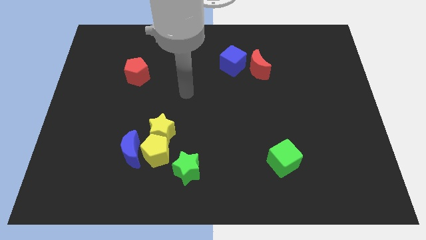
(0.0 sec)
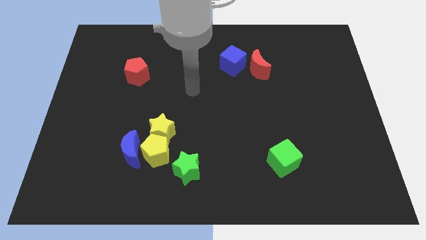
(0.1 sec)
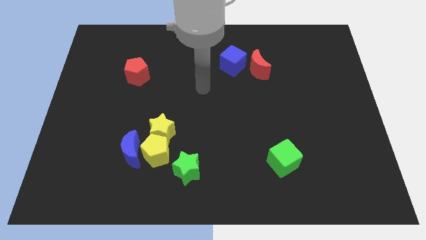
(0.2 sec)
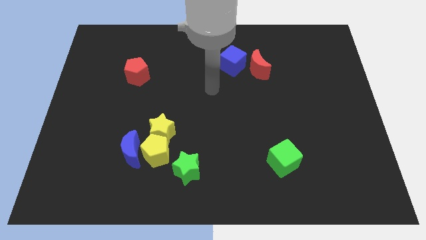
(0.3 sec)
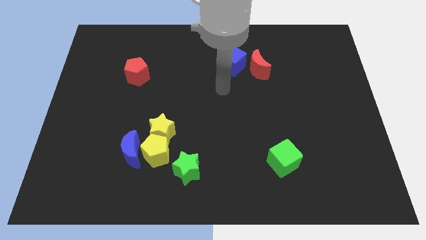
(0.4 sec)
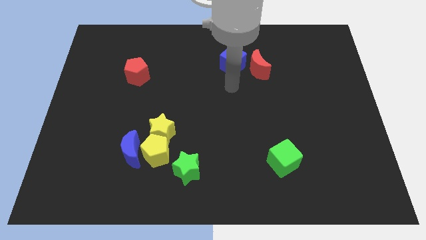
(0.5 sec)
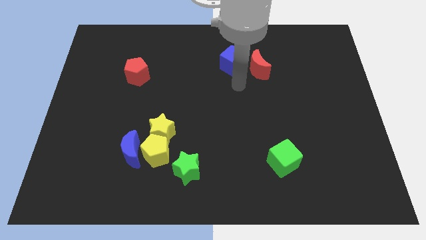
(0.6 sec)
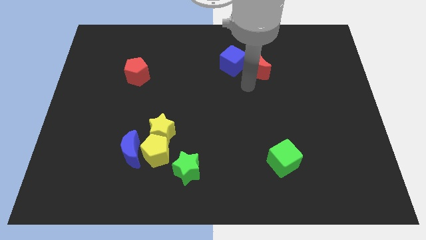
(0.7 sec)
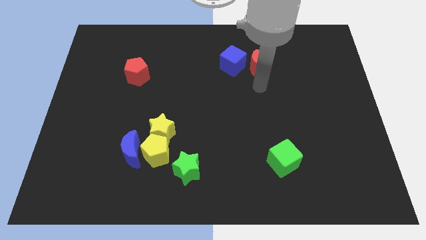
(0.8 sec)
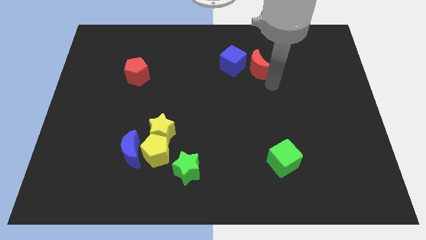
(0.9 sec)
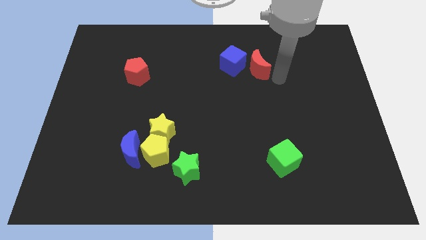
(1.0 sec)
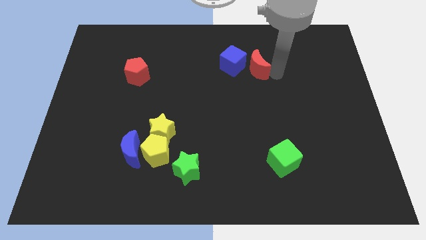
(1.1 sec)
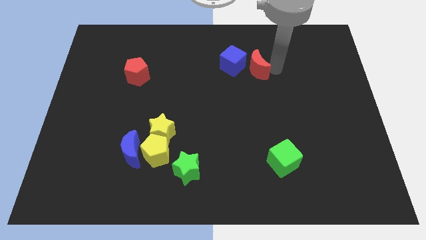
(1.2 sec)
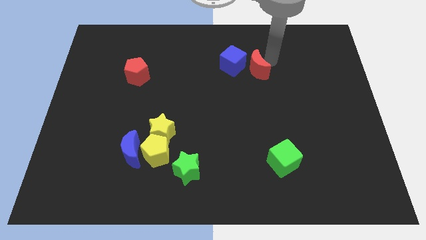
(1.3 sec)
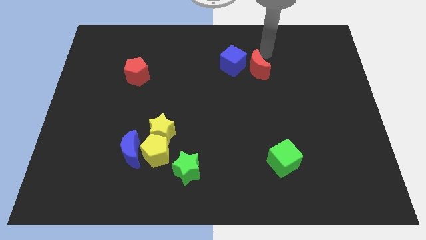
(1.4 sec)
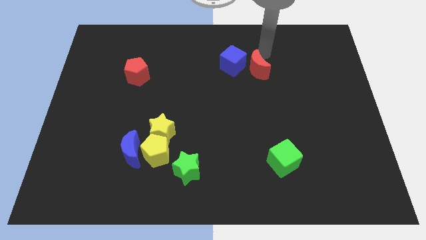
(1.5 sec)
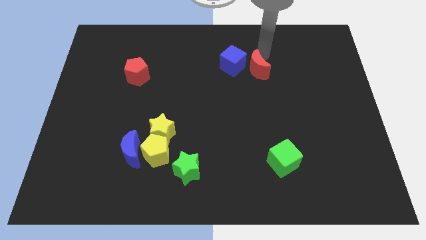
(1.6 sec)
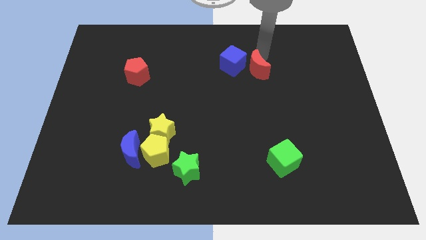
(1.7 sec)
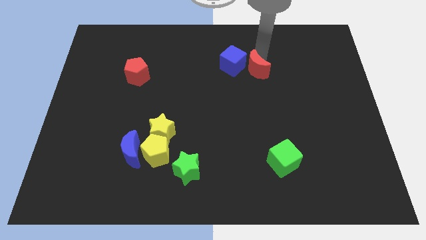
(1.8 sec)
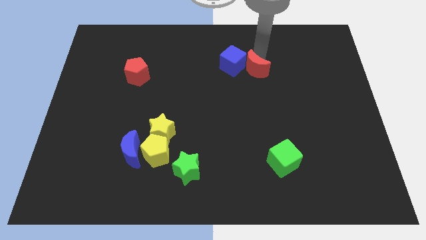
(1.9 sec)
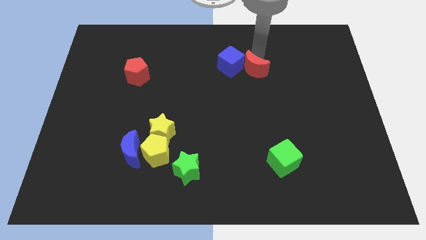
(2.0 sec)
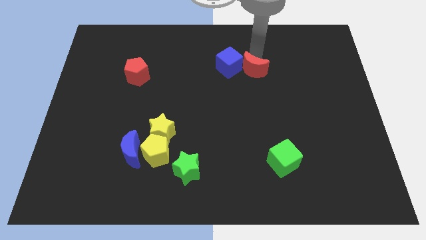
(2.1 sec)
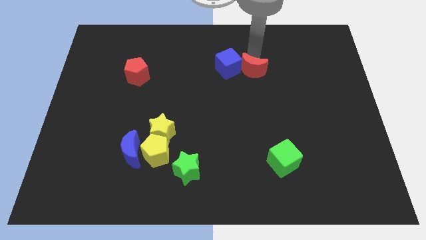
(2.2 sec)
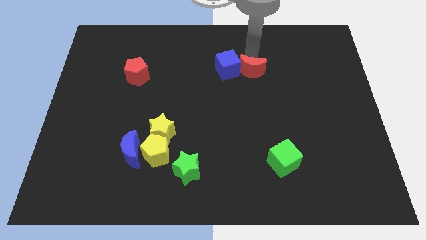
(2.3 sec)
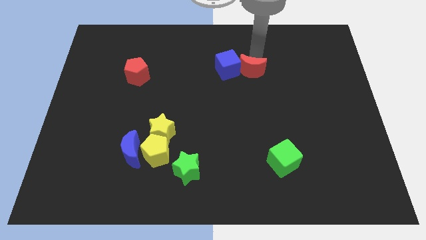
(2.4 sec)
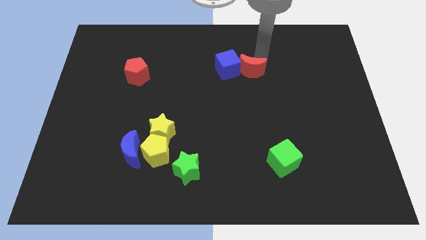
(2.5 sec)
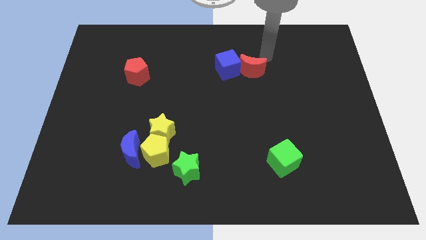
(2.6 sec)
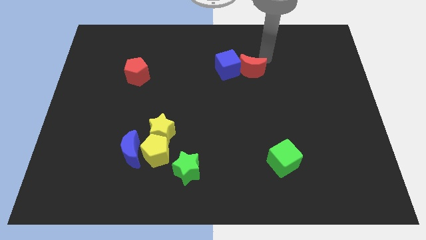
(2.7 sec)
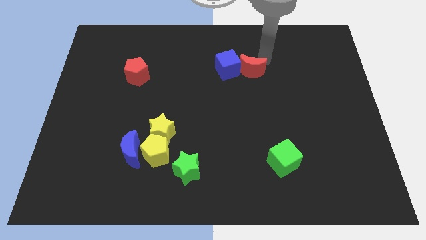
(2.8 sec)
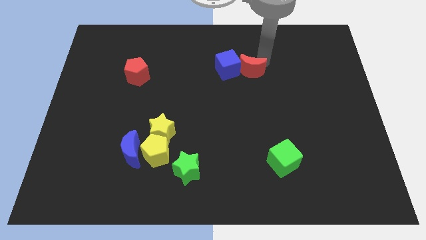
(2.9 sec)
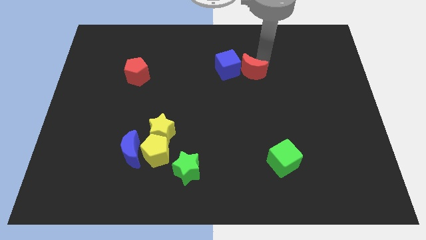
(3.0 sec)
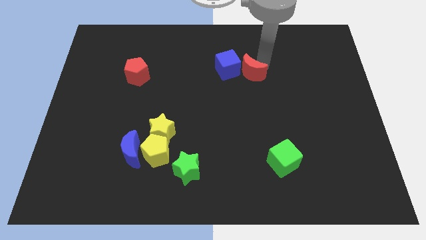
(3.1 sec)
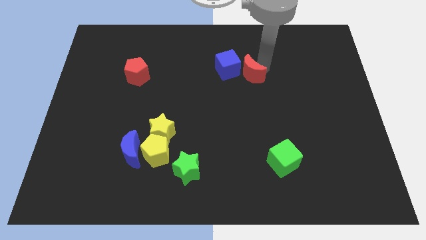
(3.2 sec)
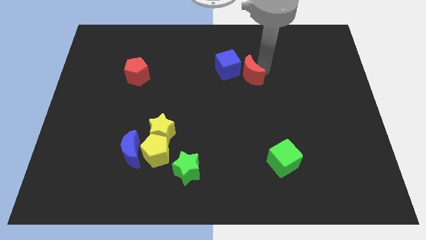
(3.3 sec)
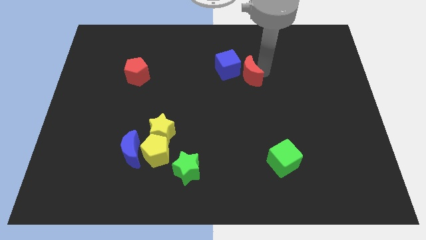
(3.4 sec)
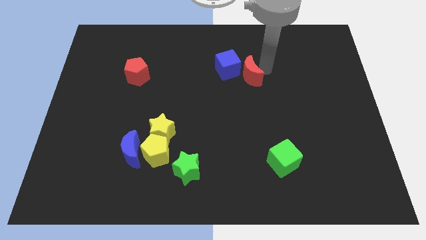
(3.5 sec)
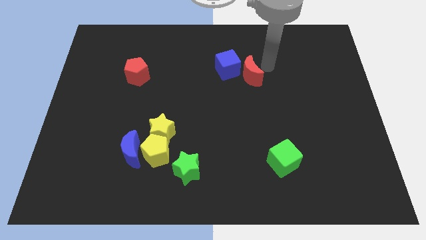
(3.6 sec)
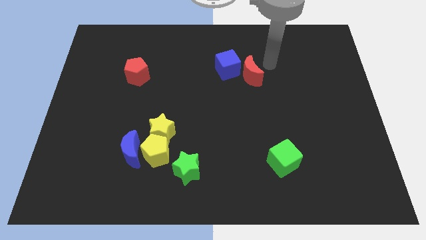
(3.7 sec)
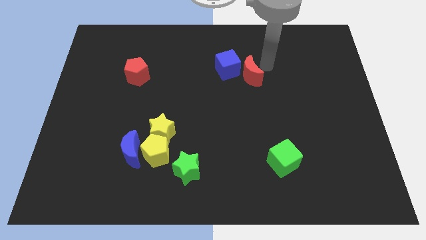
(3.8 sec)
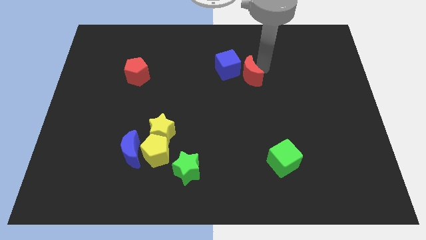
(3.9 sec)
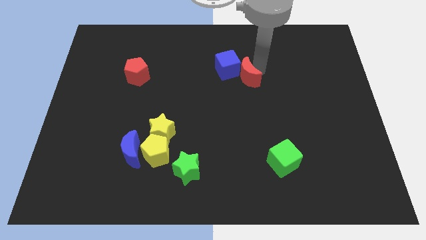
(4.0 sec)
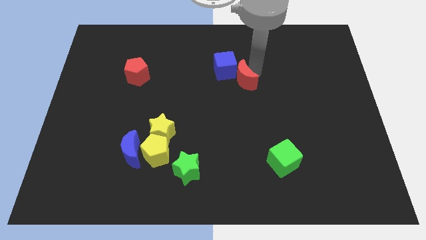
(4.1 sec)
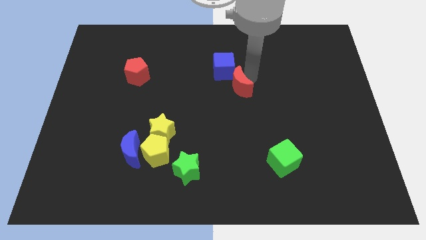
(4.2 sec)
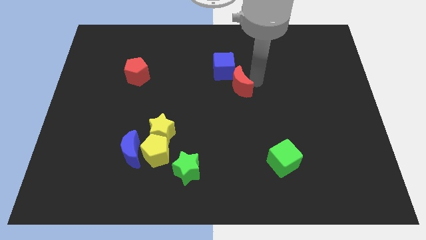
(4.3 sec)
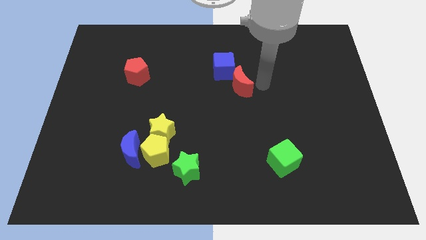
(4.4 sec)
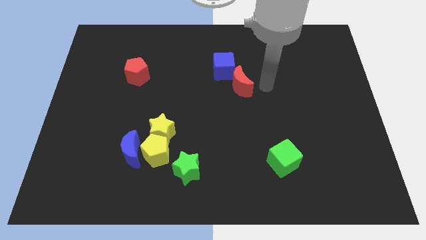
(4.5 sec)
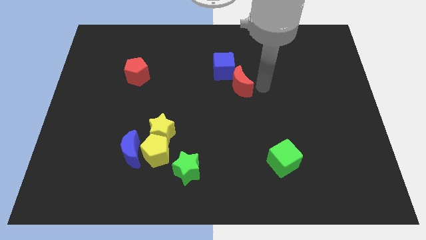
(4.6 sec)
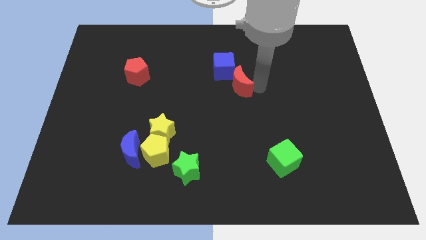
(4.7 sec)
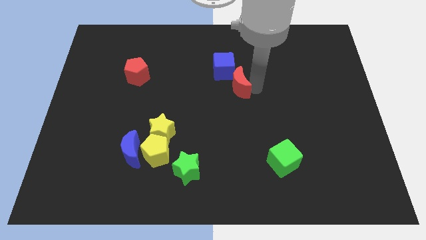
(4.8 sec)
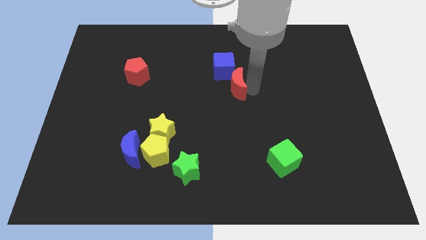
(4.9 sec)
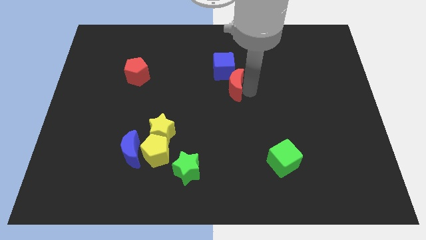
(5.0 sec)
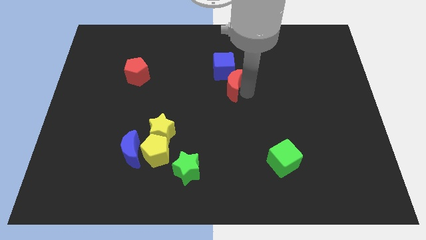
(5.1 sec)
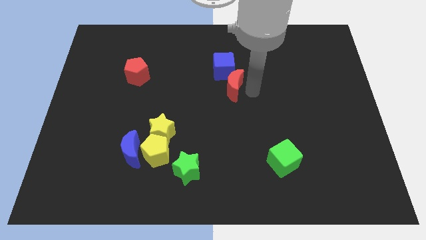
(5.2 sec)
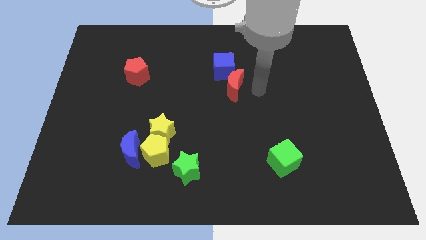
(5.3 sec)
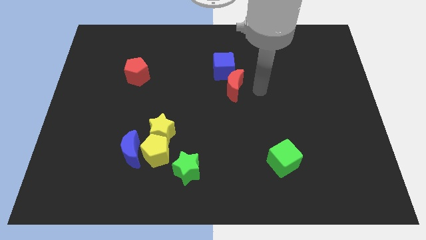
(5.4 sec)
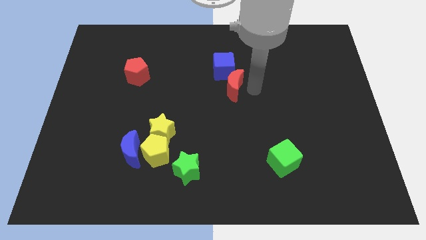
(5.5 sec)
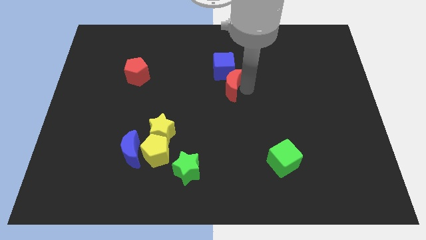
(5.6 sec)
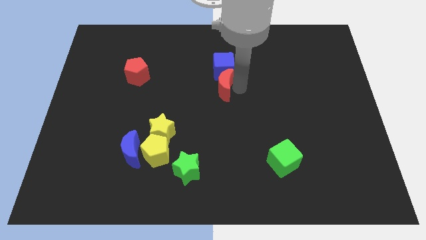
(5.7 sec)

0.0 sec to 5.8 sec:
push the red moon diagonally down and to the left of the blue cube

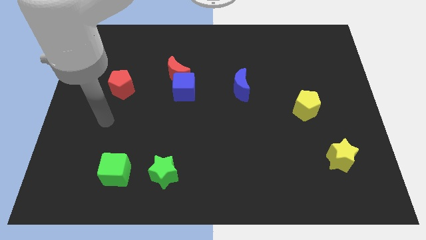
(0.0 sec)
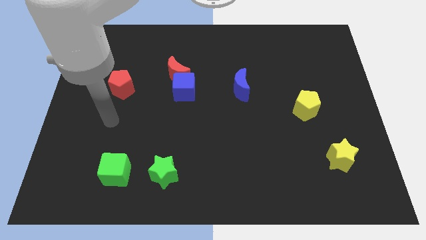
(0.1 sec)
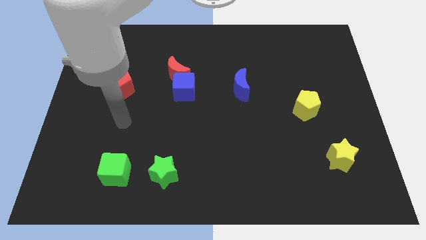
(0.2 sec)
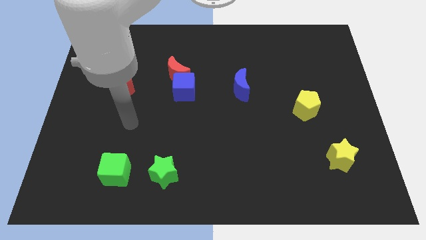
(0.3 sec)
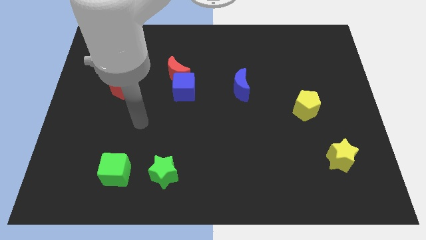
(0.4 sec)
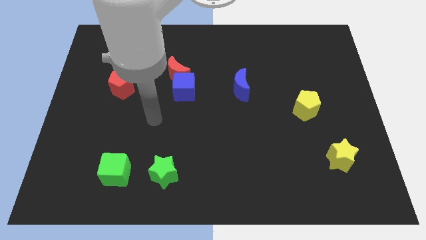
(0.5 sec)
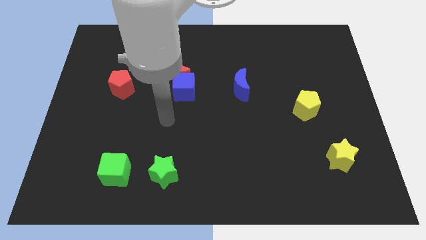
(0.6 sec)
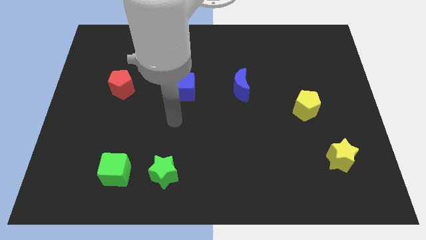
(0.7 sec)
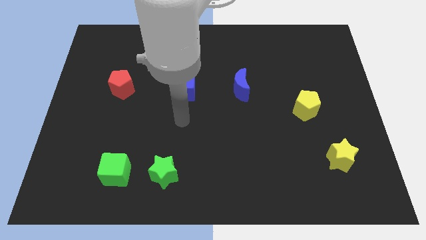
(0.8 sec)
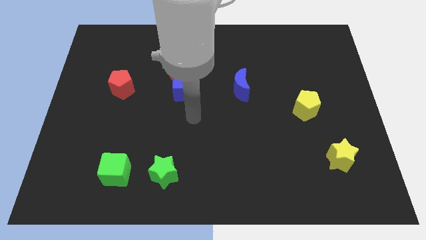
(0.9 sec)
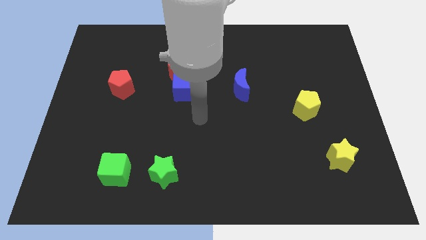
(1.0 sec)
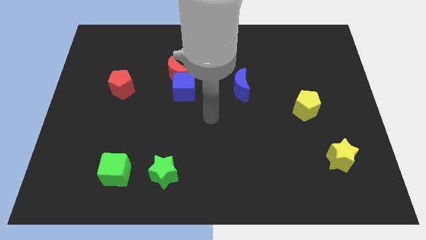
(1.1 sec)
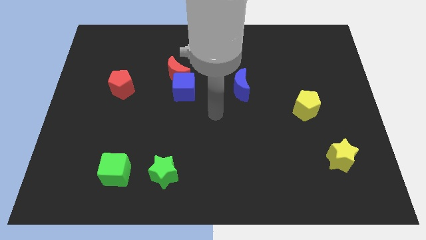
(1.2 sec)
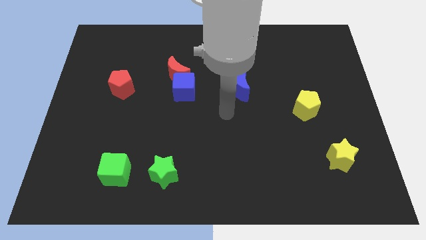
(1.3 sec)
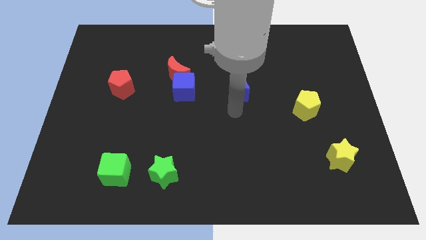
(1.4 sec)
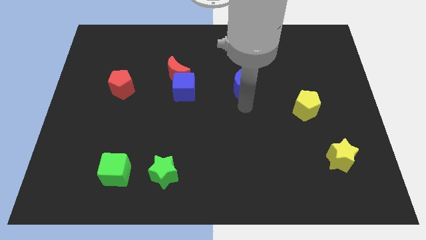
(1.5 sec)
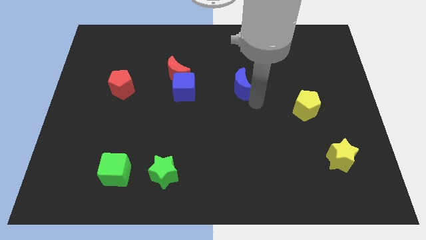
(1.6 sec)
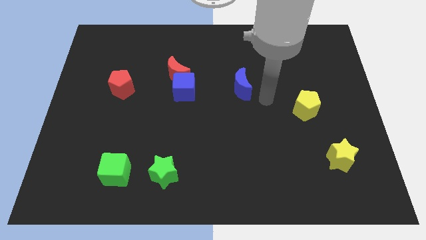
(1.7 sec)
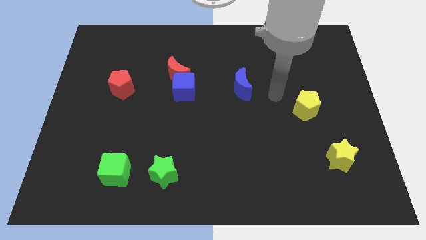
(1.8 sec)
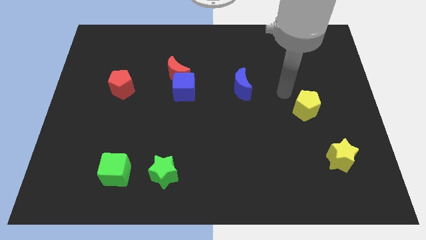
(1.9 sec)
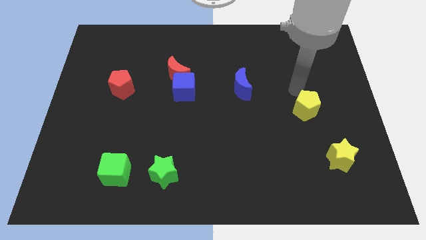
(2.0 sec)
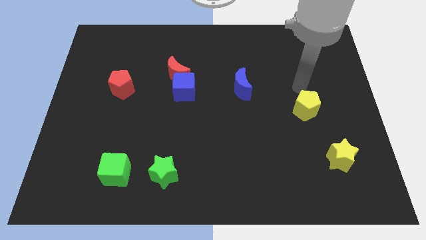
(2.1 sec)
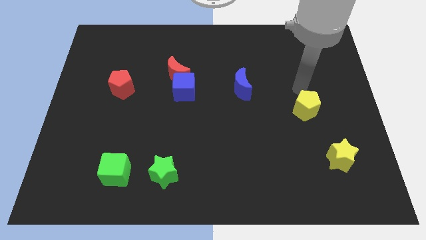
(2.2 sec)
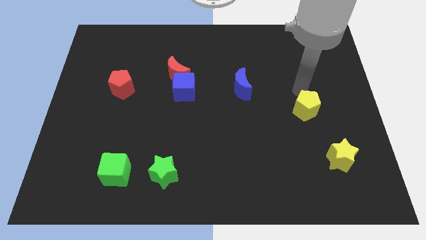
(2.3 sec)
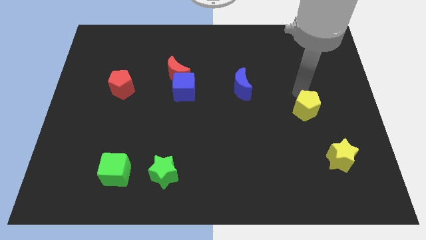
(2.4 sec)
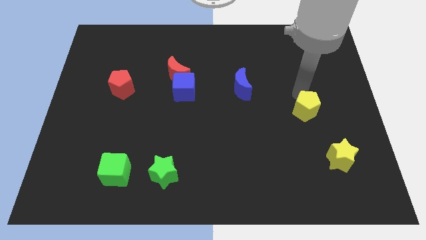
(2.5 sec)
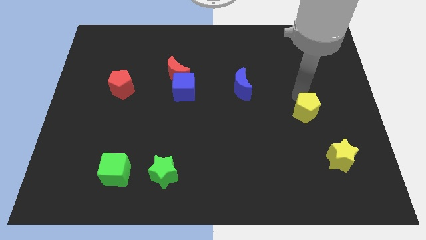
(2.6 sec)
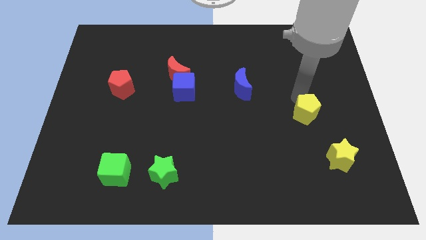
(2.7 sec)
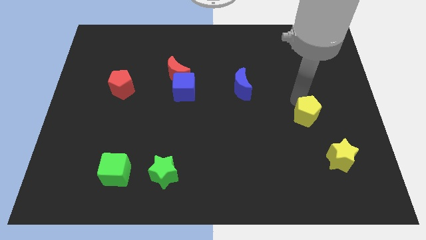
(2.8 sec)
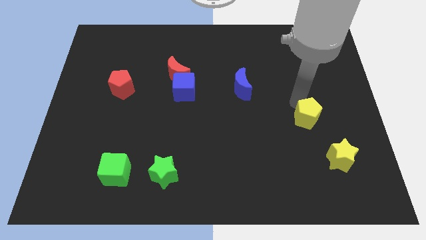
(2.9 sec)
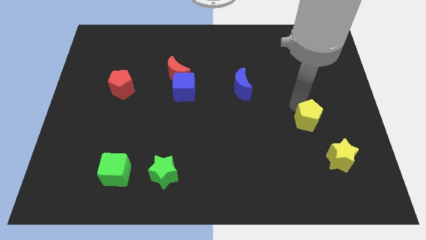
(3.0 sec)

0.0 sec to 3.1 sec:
slide the yellow pentagon to the top left of the yellow star
